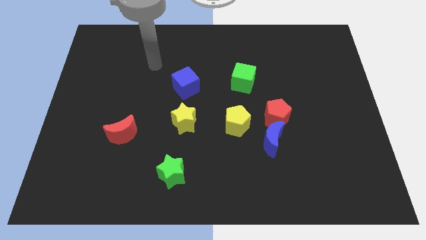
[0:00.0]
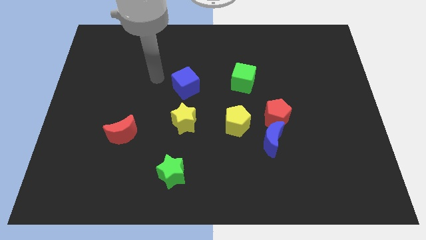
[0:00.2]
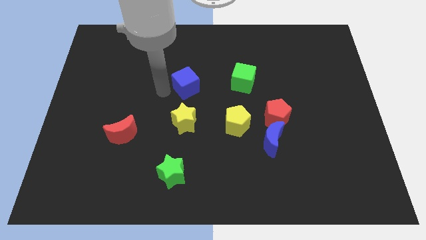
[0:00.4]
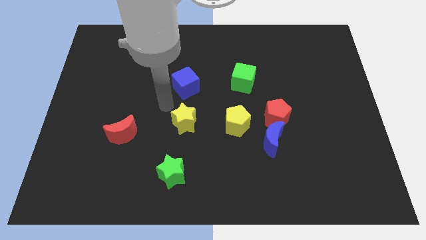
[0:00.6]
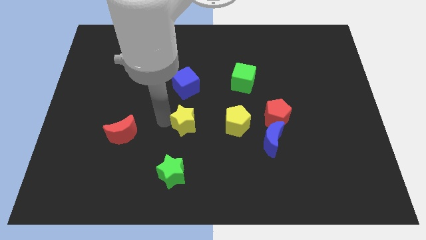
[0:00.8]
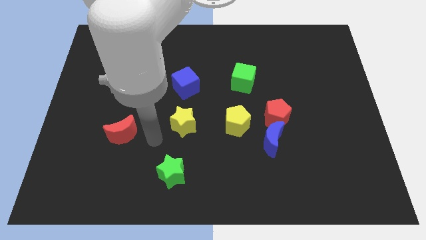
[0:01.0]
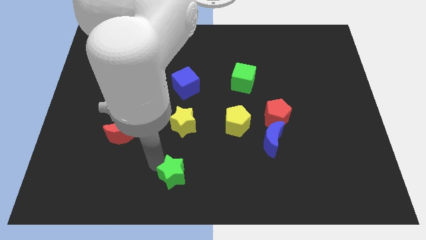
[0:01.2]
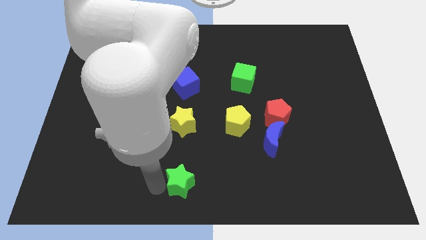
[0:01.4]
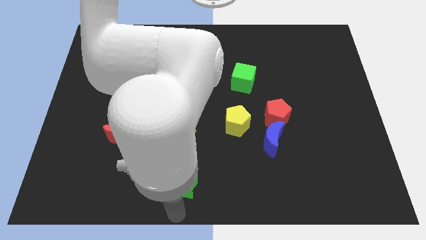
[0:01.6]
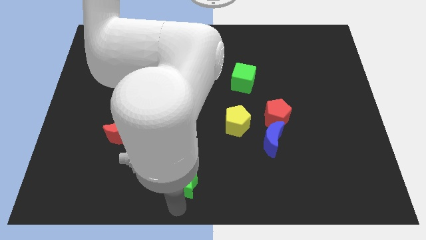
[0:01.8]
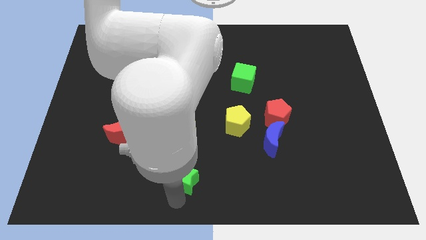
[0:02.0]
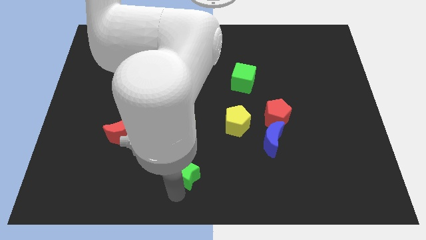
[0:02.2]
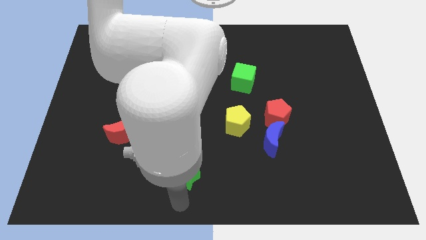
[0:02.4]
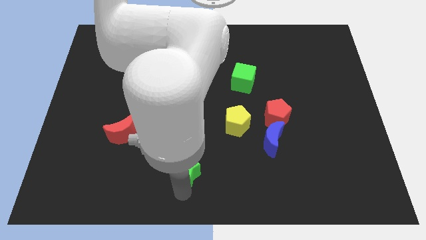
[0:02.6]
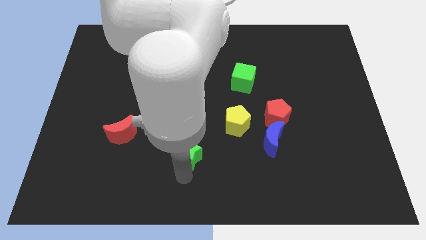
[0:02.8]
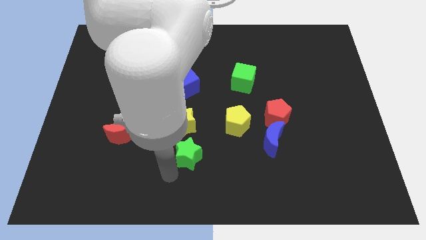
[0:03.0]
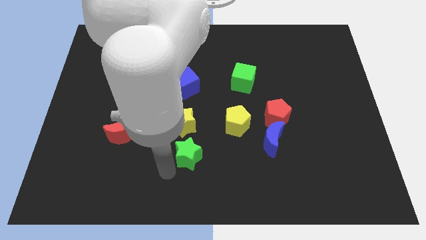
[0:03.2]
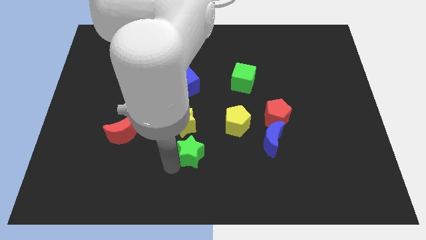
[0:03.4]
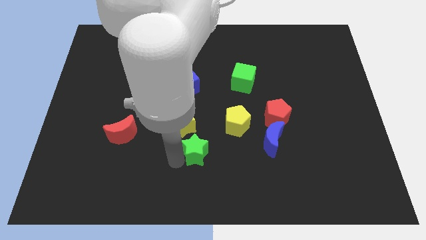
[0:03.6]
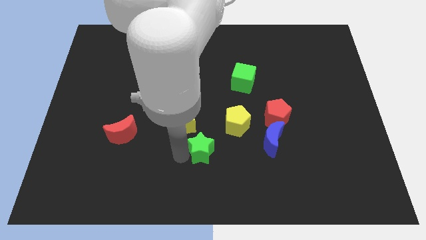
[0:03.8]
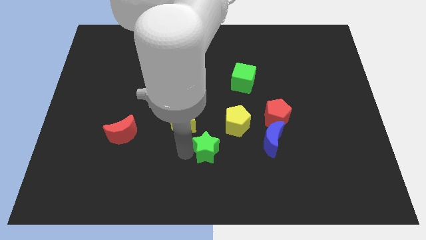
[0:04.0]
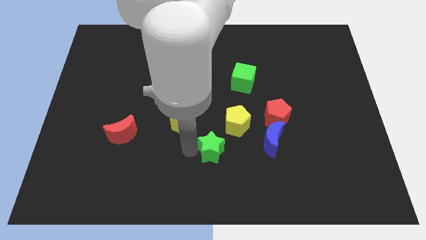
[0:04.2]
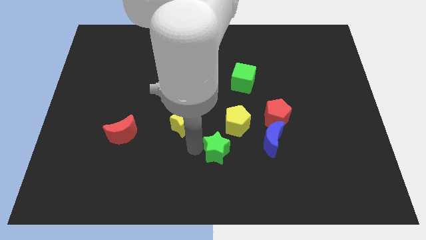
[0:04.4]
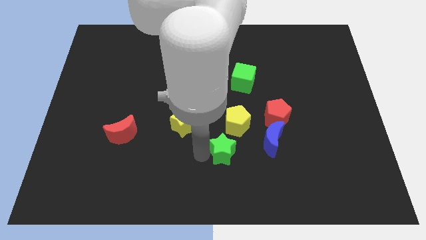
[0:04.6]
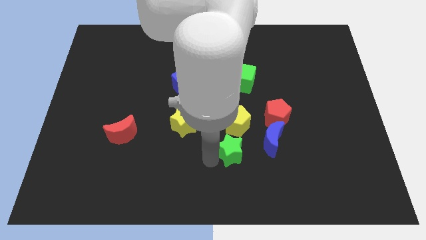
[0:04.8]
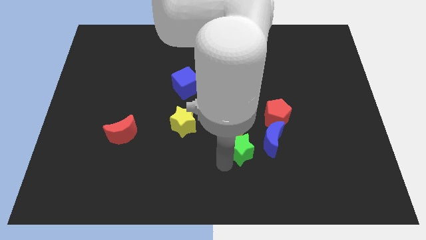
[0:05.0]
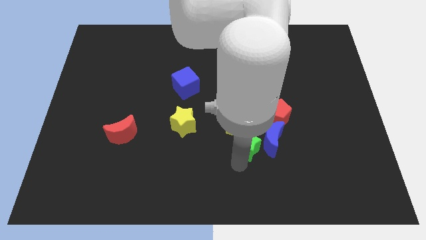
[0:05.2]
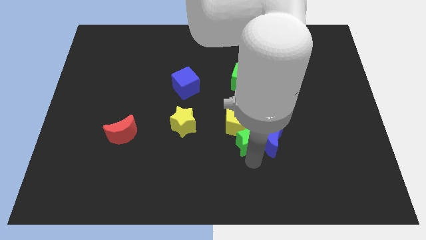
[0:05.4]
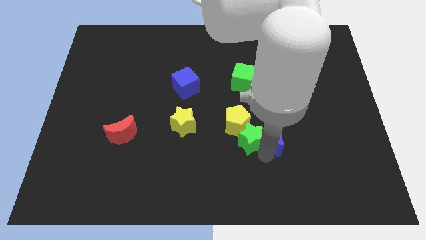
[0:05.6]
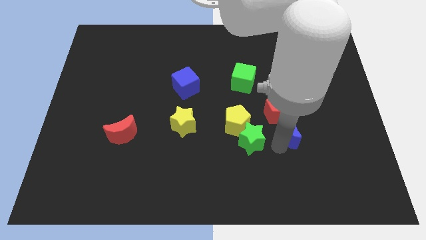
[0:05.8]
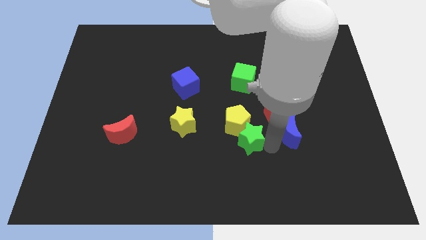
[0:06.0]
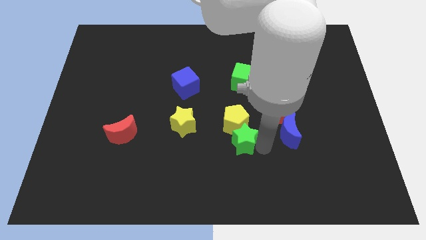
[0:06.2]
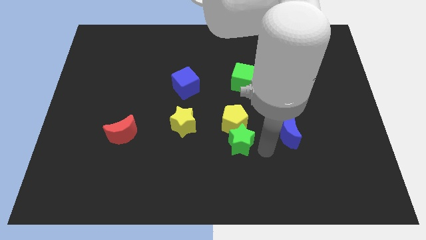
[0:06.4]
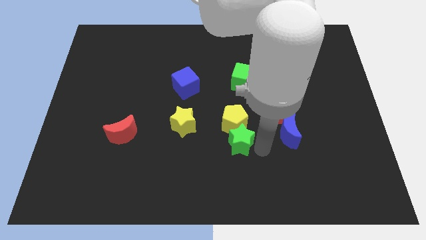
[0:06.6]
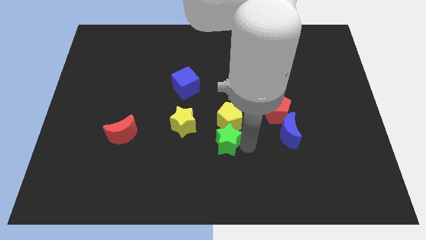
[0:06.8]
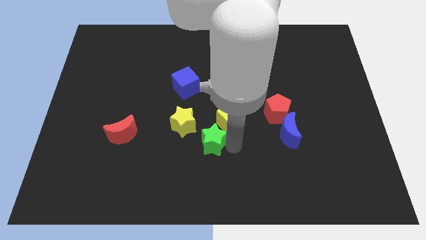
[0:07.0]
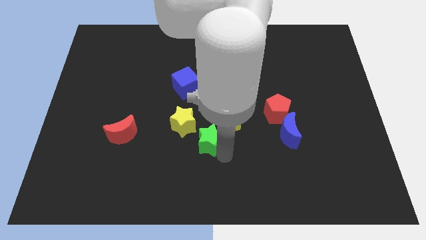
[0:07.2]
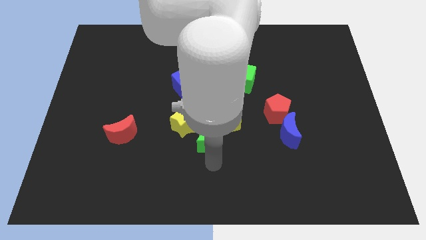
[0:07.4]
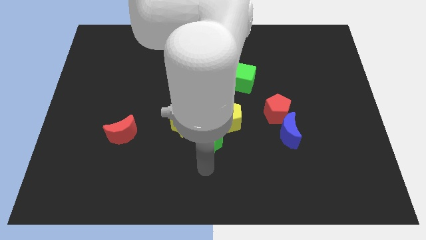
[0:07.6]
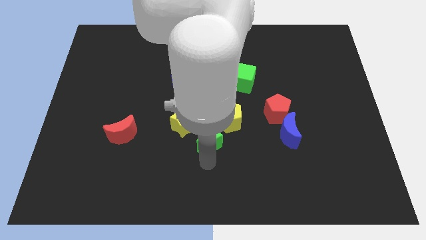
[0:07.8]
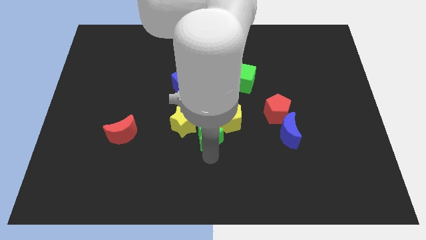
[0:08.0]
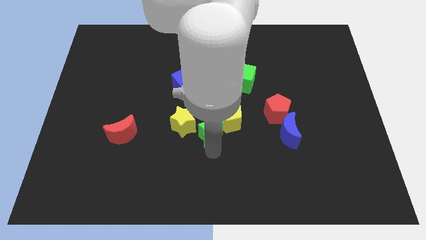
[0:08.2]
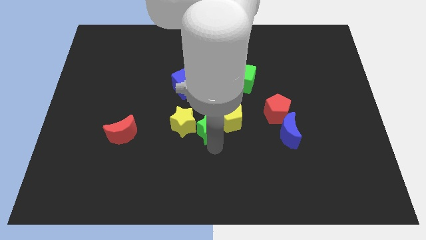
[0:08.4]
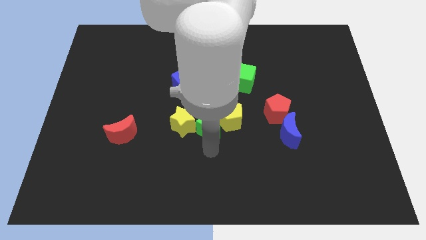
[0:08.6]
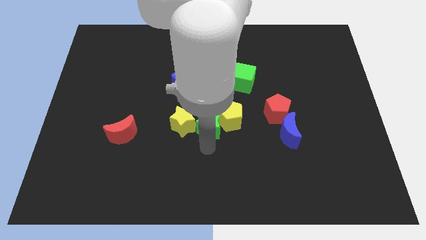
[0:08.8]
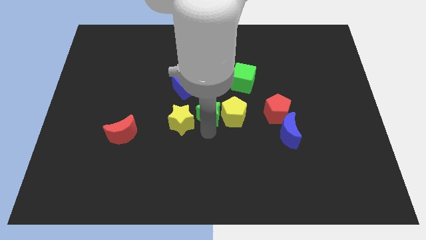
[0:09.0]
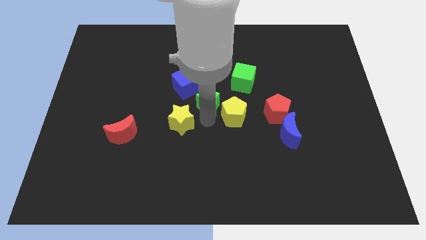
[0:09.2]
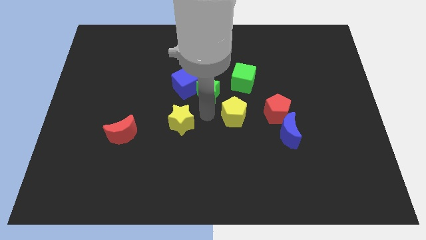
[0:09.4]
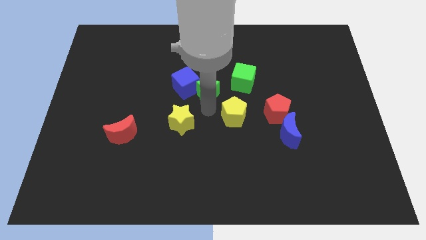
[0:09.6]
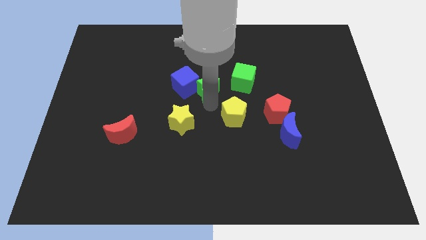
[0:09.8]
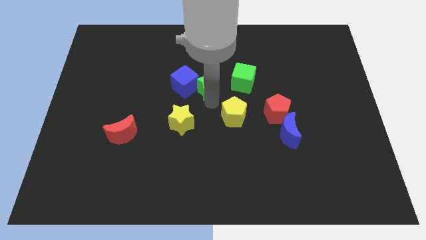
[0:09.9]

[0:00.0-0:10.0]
push the green star diagonally up and to the right of the blue cube

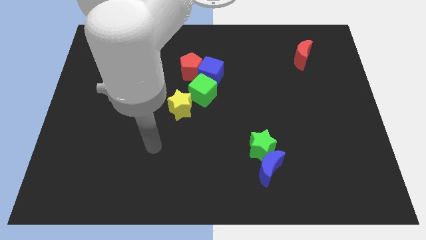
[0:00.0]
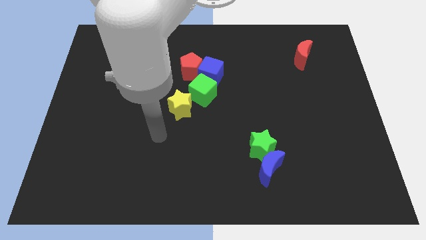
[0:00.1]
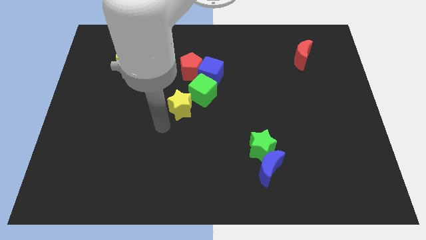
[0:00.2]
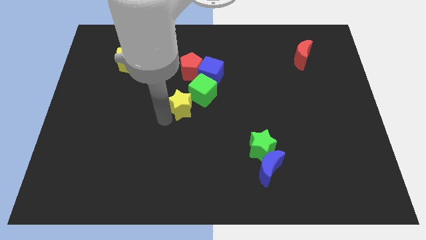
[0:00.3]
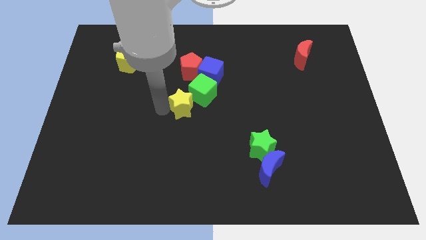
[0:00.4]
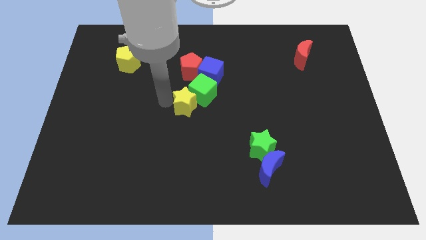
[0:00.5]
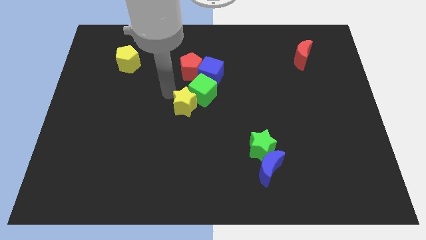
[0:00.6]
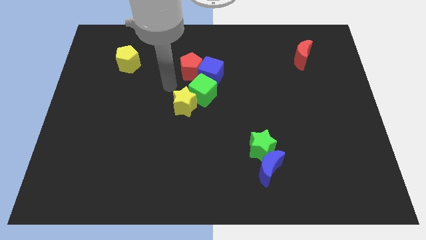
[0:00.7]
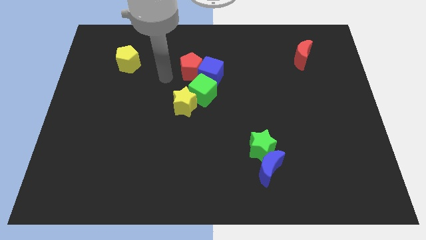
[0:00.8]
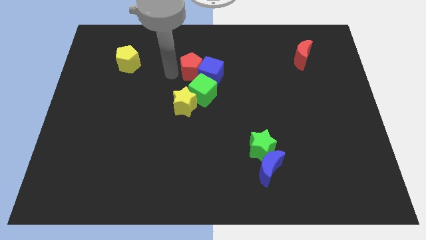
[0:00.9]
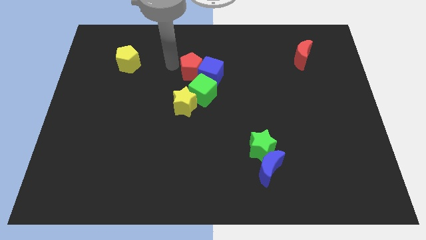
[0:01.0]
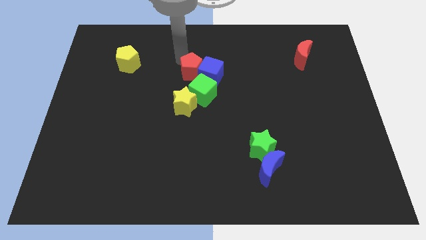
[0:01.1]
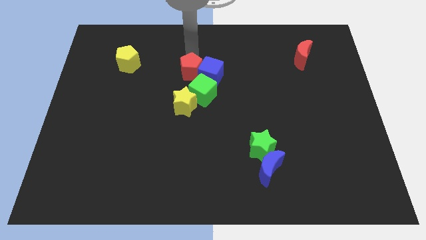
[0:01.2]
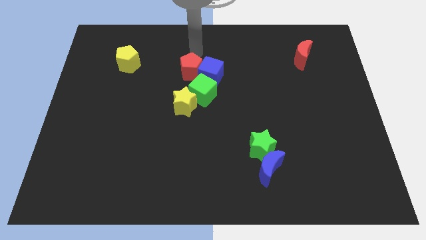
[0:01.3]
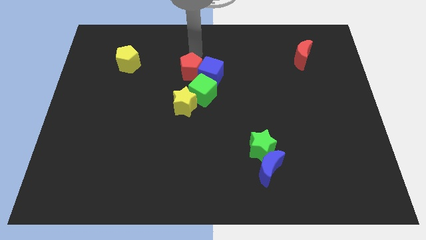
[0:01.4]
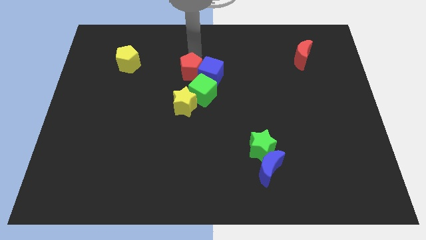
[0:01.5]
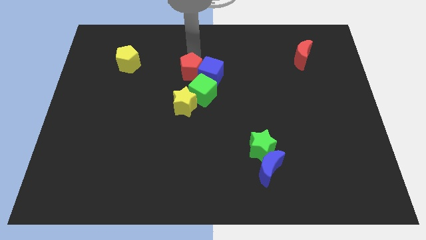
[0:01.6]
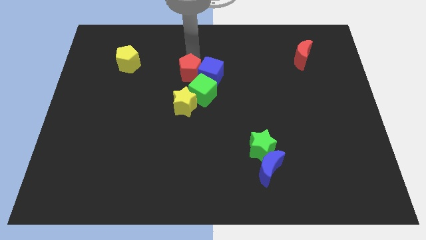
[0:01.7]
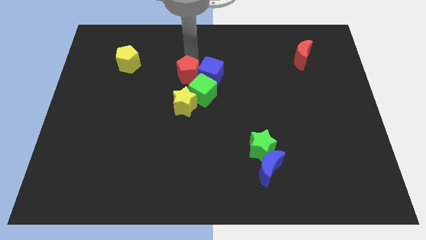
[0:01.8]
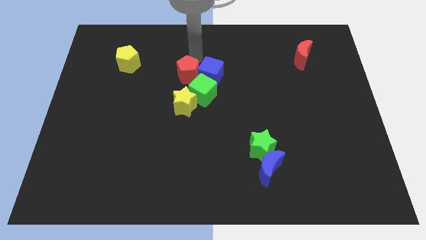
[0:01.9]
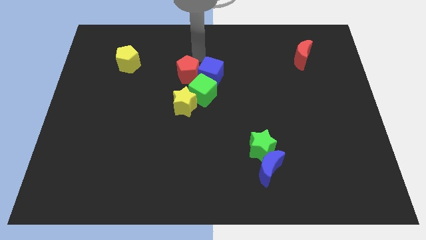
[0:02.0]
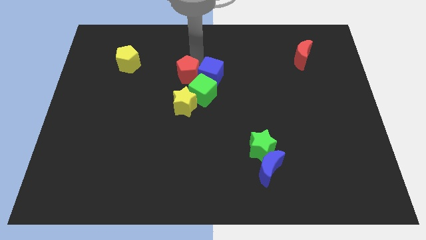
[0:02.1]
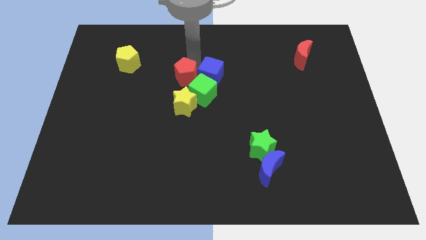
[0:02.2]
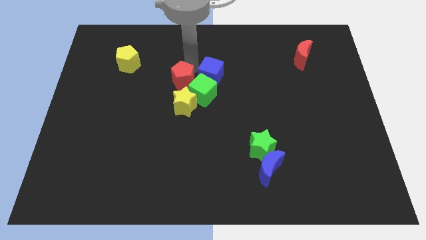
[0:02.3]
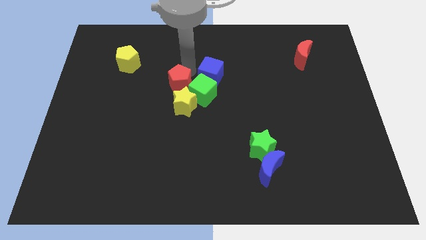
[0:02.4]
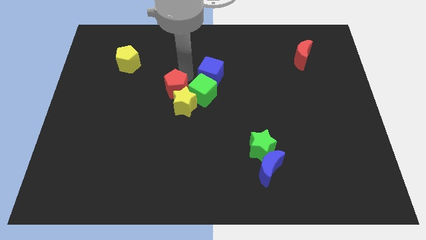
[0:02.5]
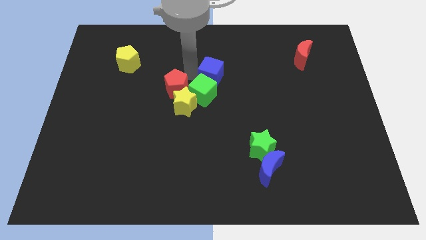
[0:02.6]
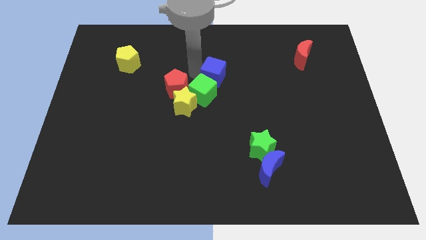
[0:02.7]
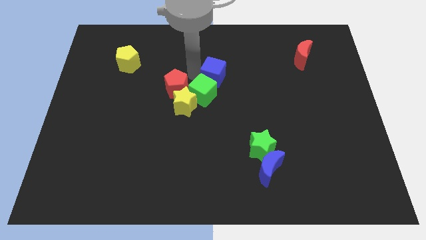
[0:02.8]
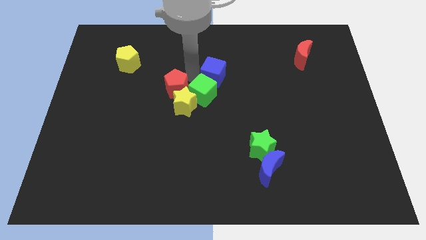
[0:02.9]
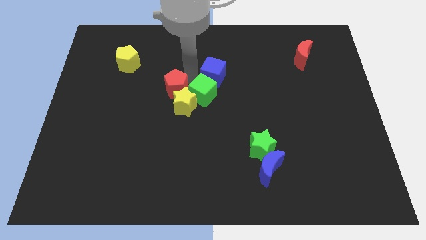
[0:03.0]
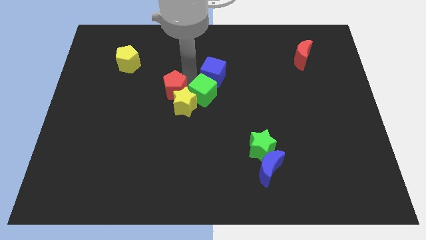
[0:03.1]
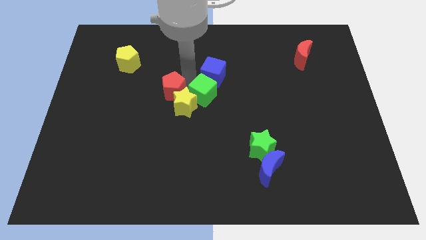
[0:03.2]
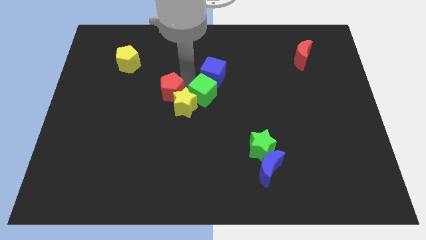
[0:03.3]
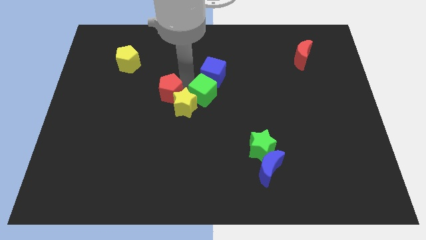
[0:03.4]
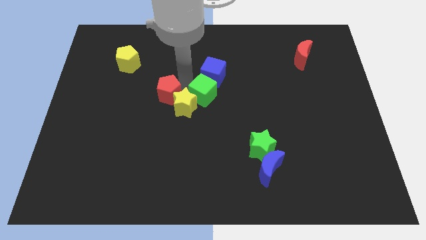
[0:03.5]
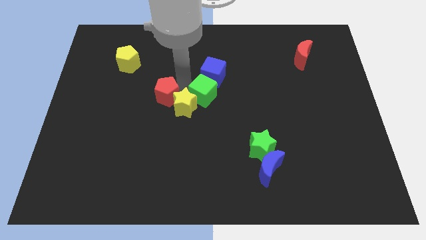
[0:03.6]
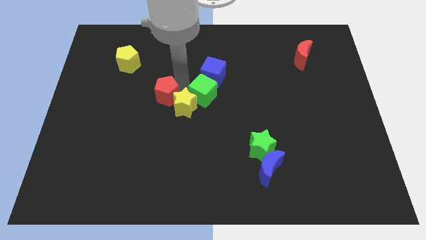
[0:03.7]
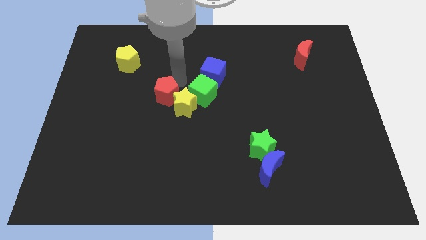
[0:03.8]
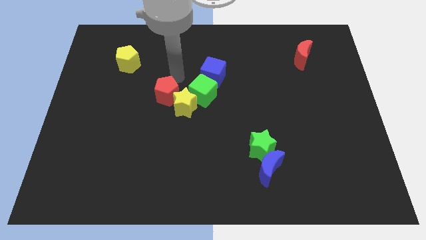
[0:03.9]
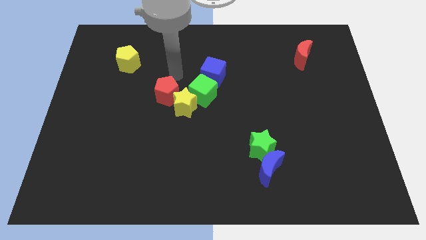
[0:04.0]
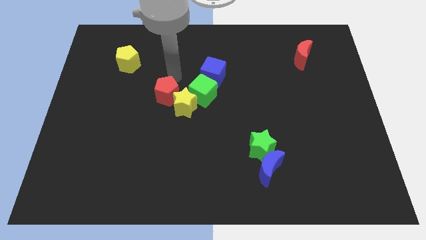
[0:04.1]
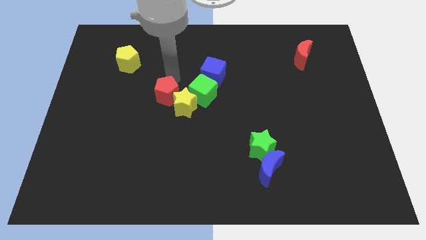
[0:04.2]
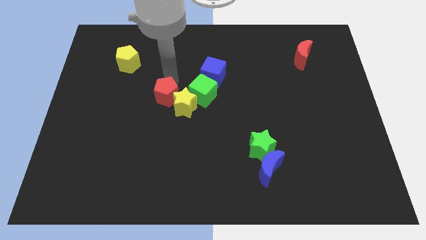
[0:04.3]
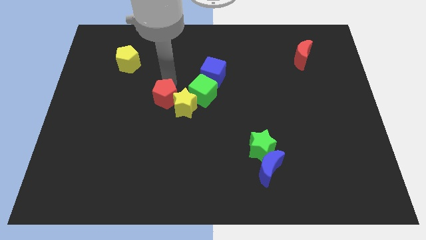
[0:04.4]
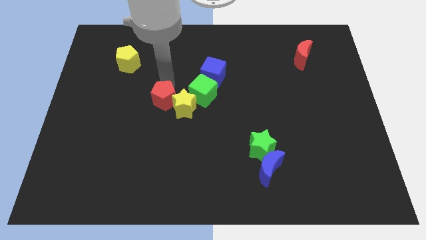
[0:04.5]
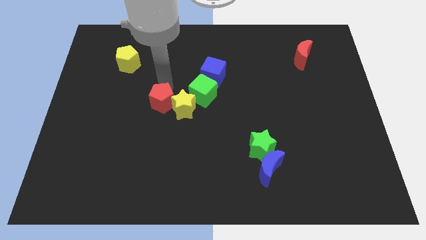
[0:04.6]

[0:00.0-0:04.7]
put the red pentagon to the bottom left side of the green cube
